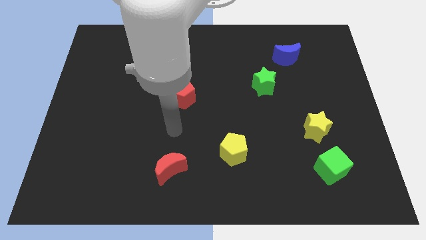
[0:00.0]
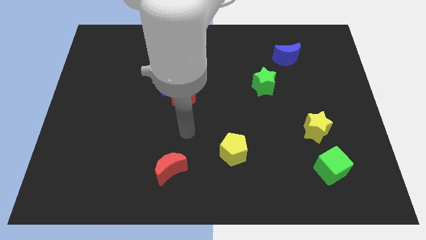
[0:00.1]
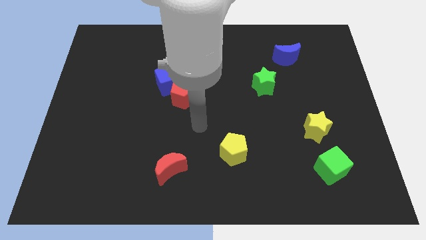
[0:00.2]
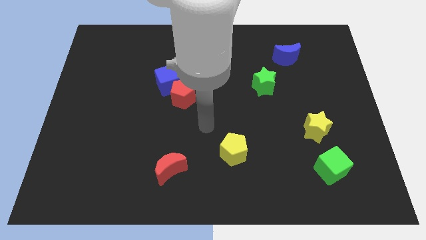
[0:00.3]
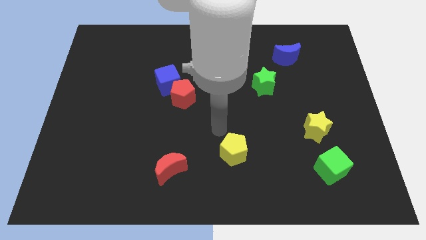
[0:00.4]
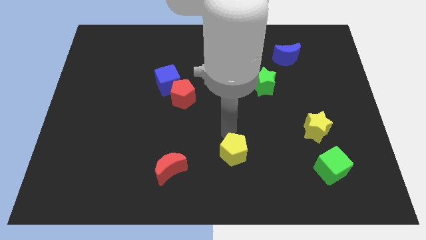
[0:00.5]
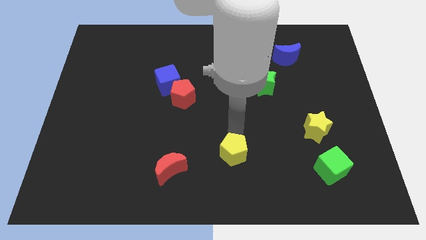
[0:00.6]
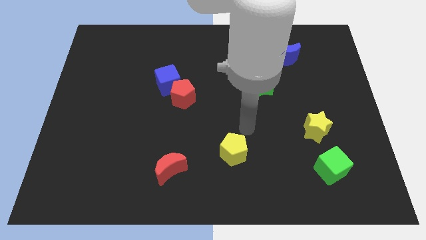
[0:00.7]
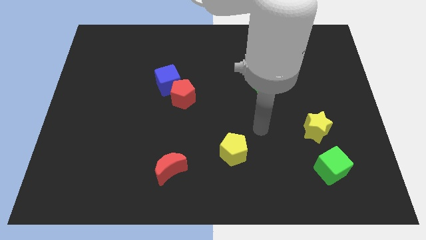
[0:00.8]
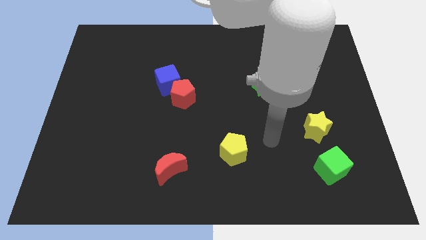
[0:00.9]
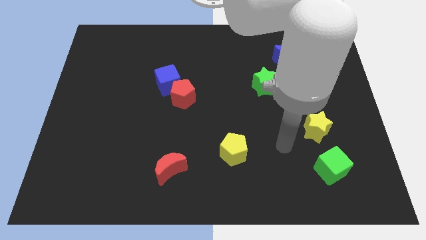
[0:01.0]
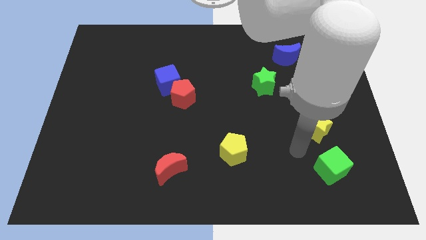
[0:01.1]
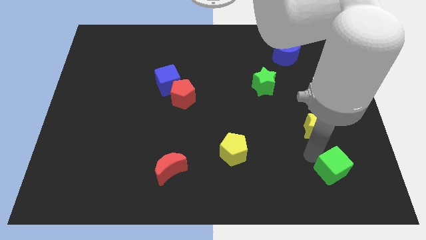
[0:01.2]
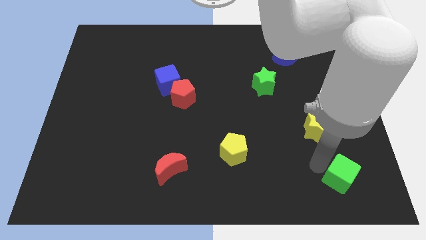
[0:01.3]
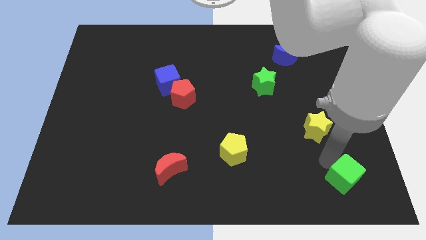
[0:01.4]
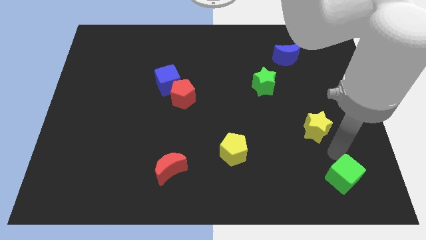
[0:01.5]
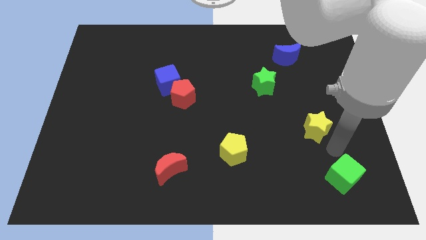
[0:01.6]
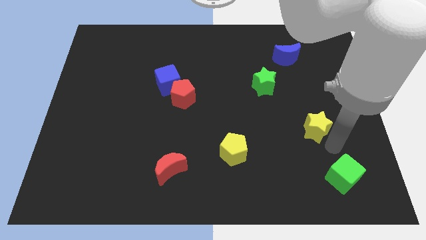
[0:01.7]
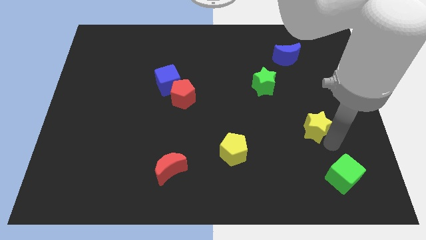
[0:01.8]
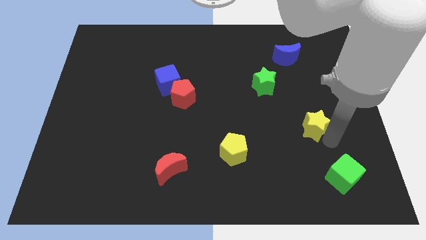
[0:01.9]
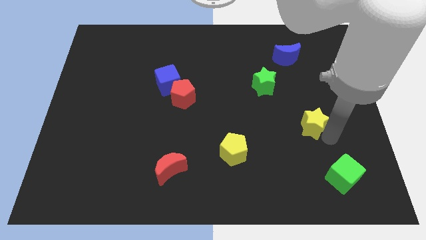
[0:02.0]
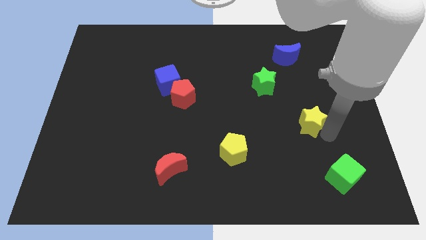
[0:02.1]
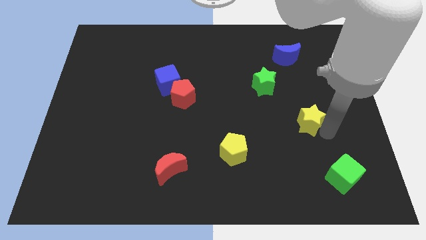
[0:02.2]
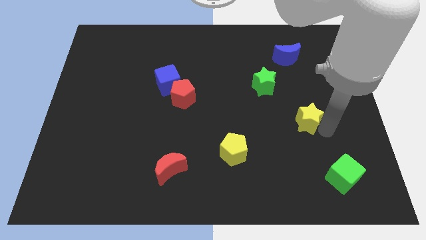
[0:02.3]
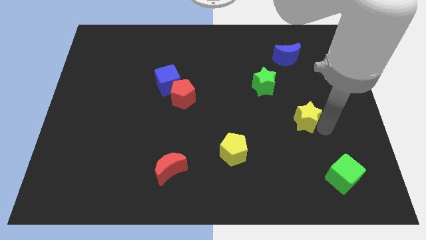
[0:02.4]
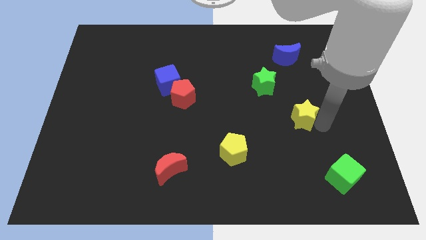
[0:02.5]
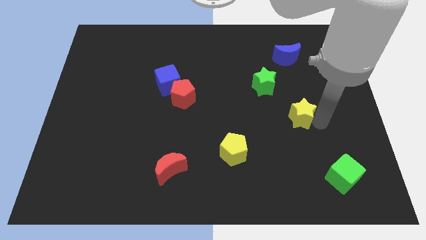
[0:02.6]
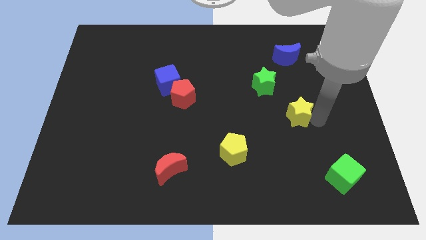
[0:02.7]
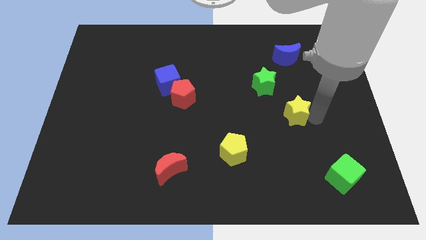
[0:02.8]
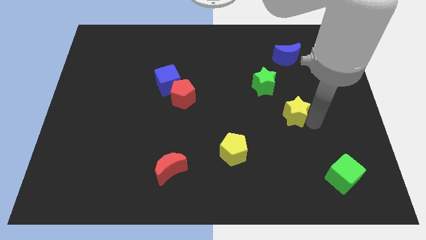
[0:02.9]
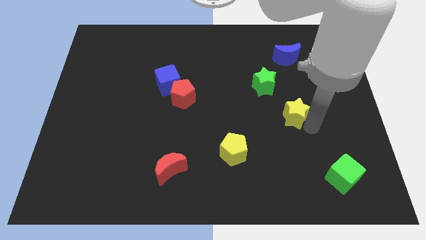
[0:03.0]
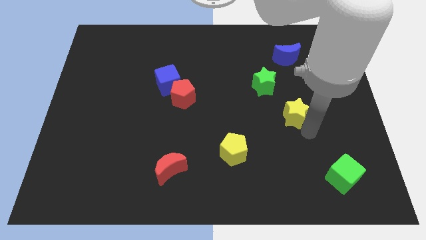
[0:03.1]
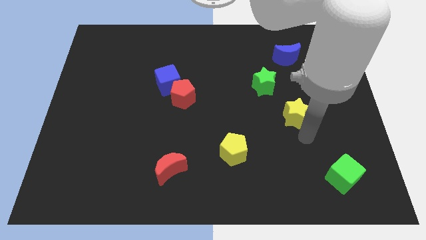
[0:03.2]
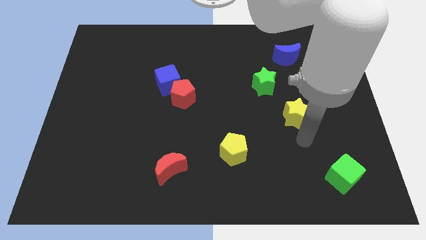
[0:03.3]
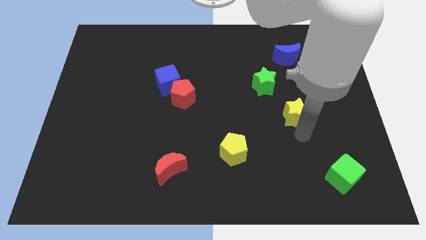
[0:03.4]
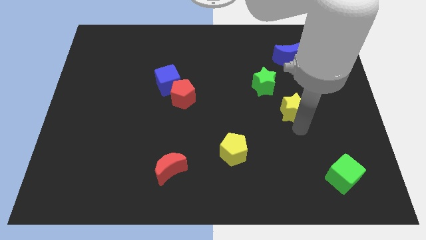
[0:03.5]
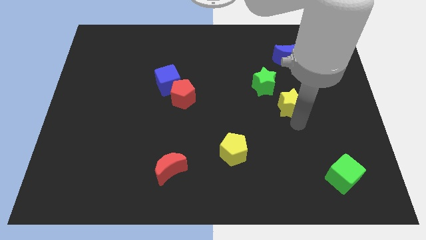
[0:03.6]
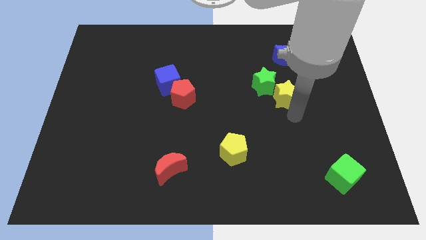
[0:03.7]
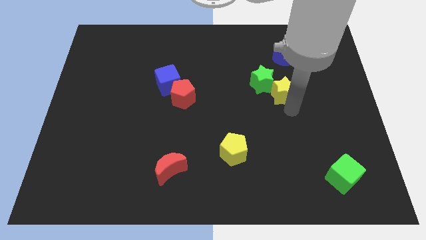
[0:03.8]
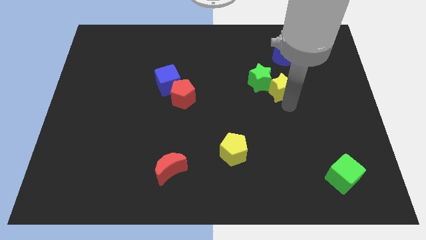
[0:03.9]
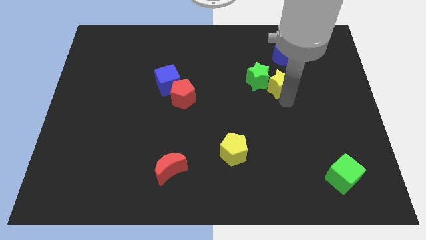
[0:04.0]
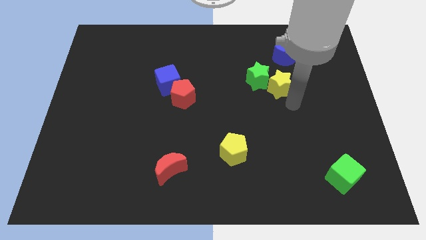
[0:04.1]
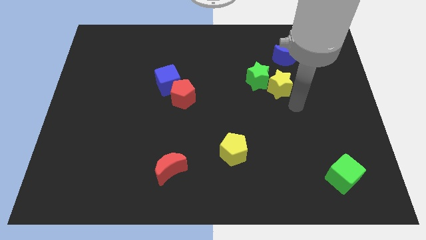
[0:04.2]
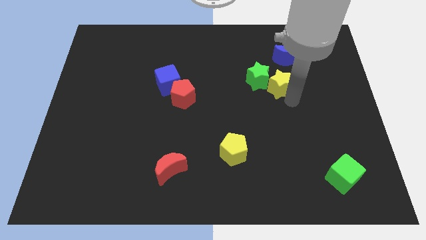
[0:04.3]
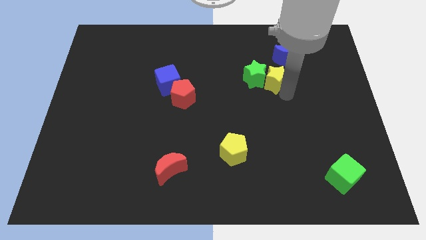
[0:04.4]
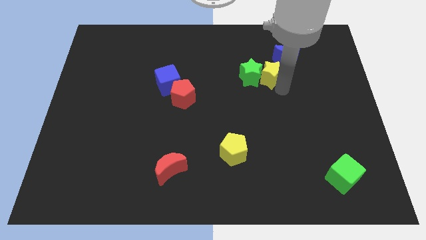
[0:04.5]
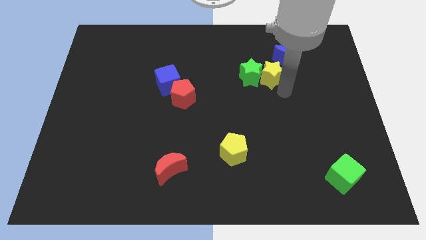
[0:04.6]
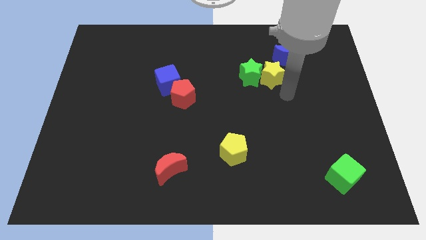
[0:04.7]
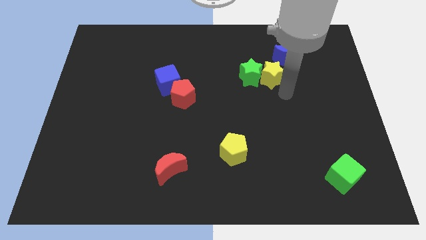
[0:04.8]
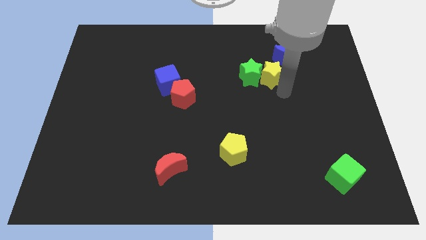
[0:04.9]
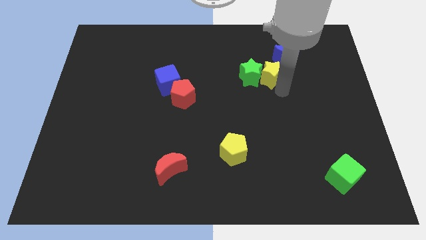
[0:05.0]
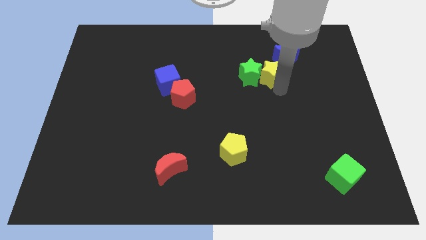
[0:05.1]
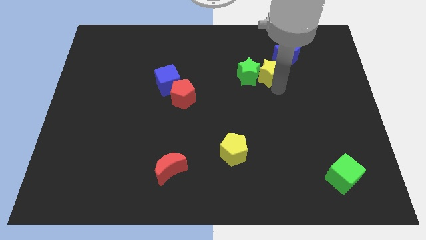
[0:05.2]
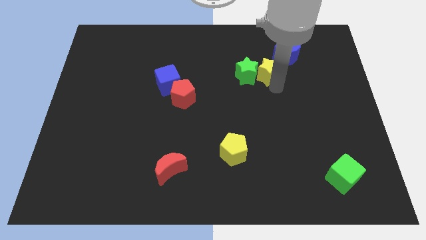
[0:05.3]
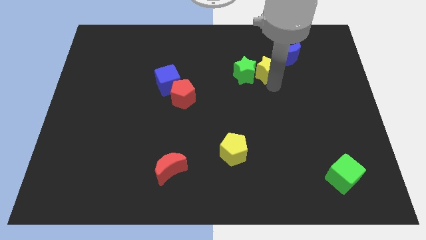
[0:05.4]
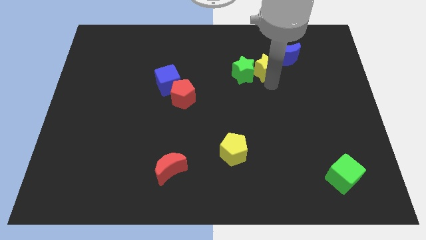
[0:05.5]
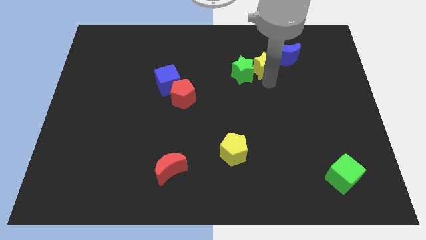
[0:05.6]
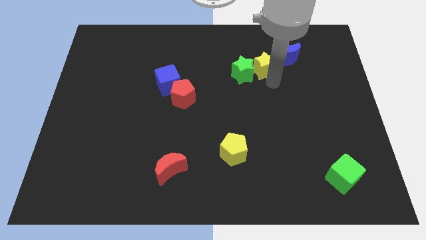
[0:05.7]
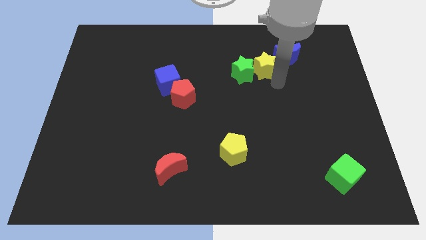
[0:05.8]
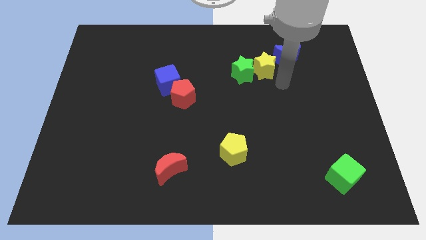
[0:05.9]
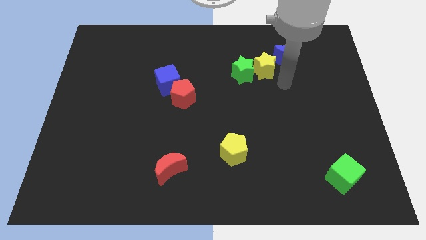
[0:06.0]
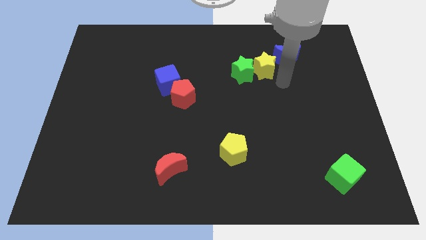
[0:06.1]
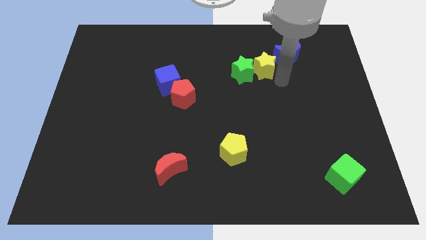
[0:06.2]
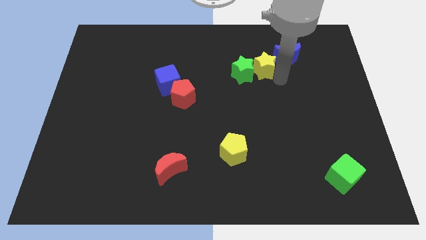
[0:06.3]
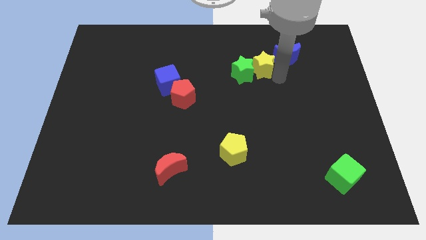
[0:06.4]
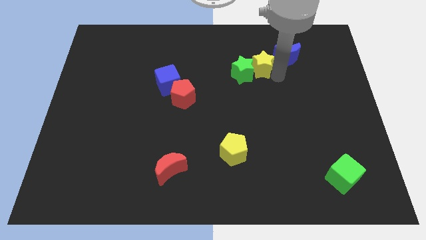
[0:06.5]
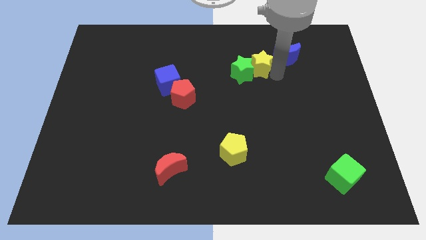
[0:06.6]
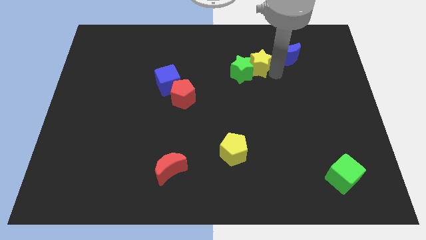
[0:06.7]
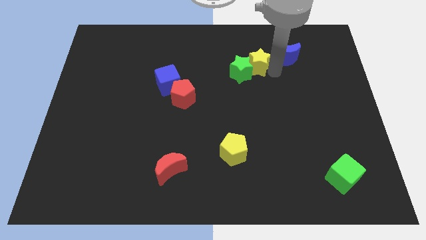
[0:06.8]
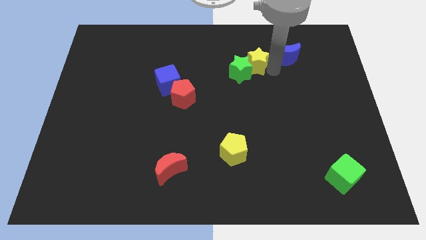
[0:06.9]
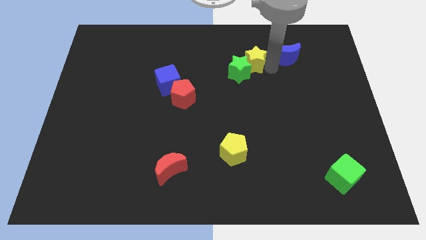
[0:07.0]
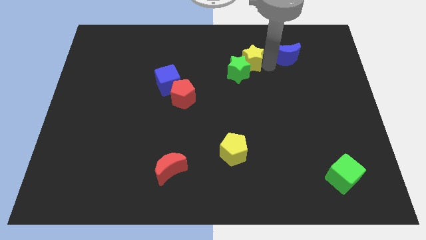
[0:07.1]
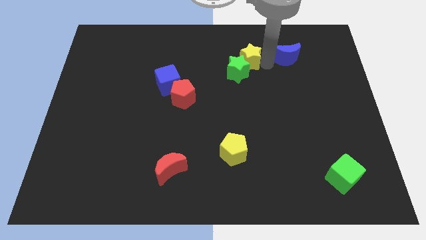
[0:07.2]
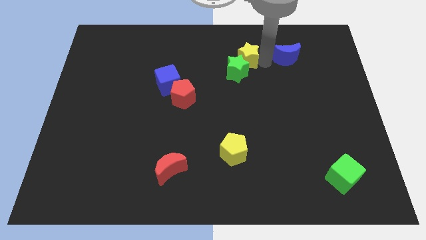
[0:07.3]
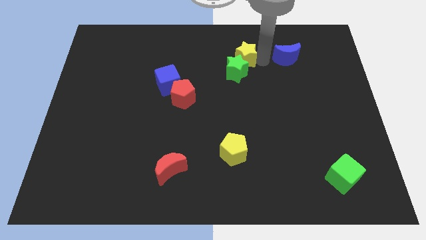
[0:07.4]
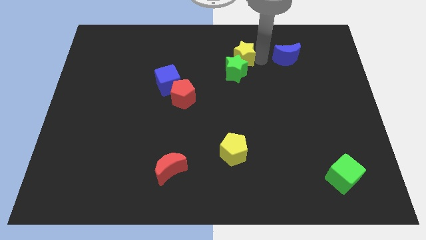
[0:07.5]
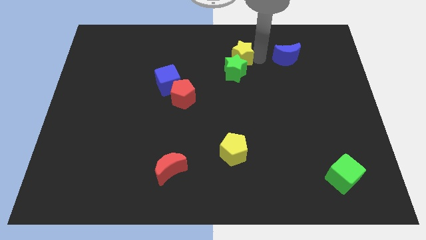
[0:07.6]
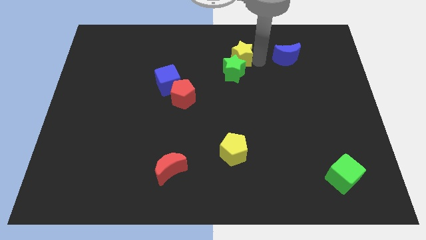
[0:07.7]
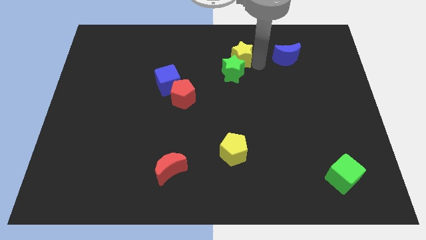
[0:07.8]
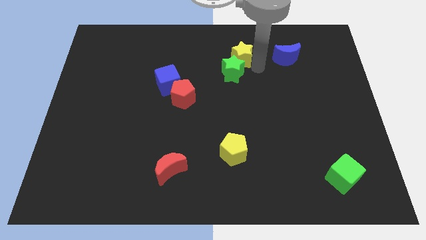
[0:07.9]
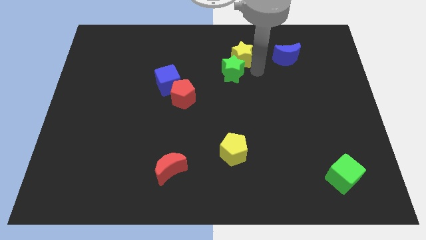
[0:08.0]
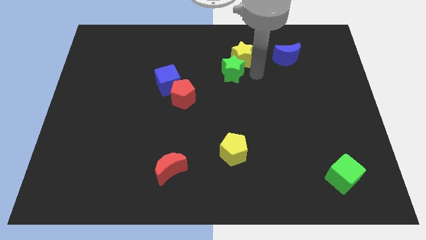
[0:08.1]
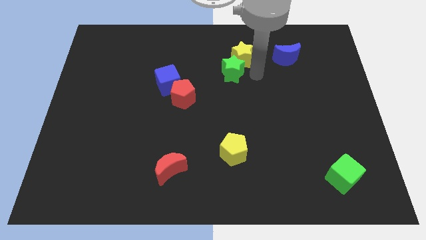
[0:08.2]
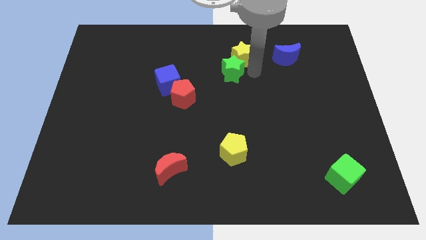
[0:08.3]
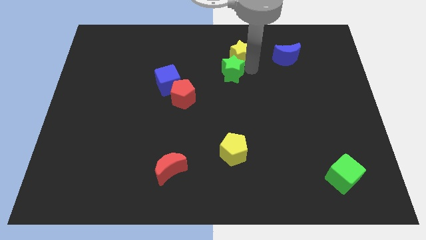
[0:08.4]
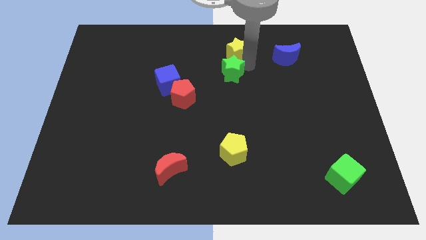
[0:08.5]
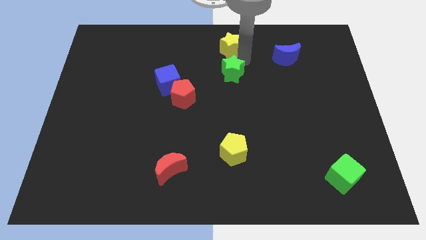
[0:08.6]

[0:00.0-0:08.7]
push the yellow star to the top
